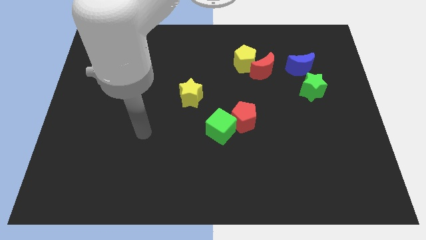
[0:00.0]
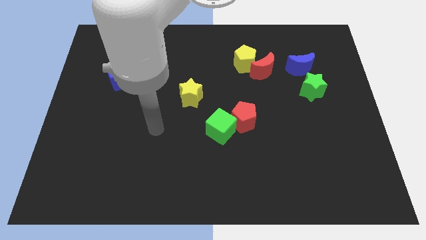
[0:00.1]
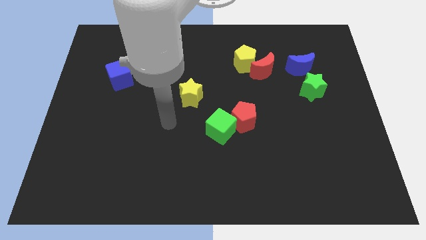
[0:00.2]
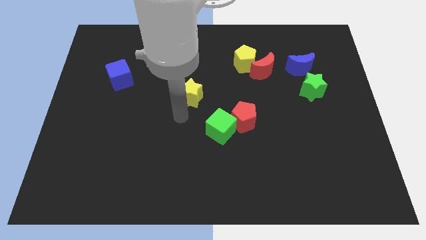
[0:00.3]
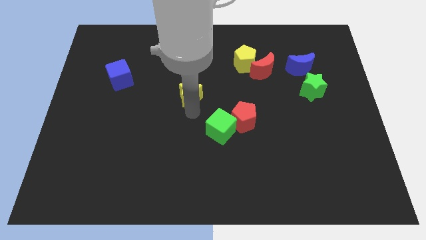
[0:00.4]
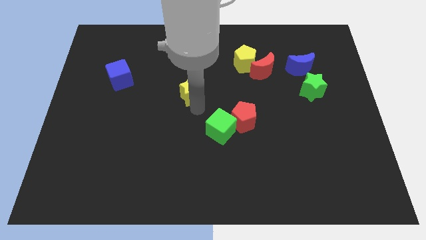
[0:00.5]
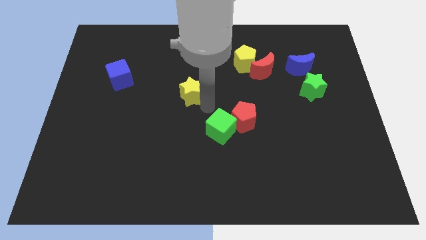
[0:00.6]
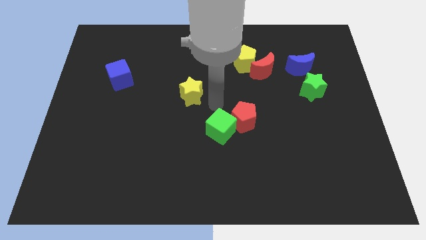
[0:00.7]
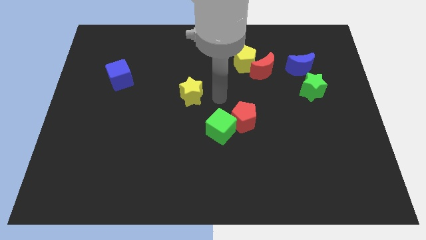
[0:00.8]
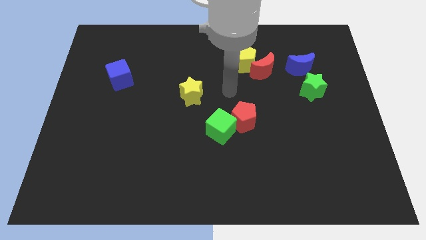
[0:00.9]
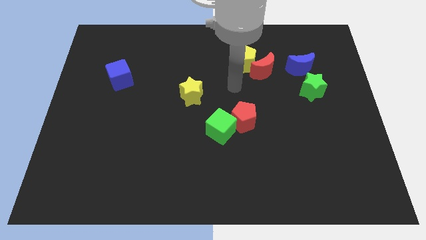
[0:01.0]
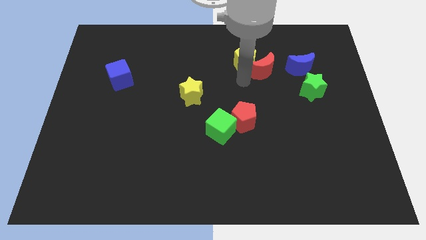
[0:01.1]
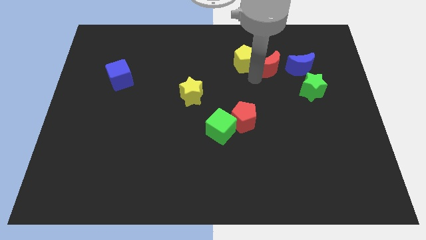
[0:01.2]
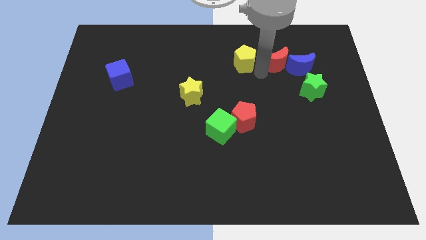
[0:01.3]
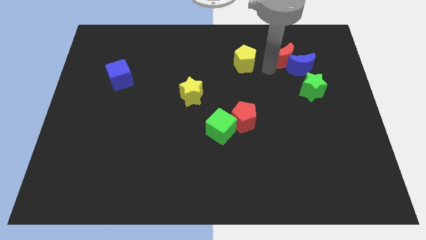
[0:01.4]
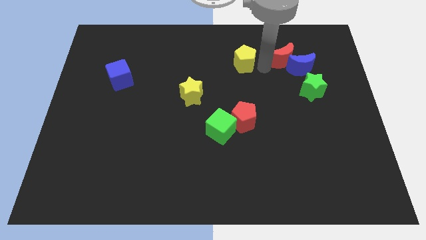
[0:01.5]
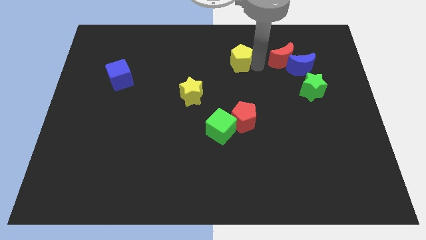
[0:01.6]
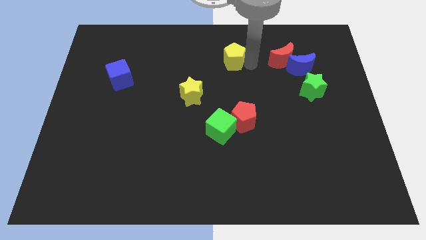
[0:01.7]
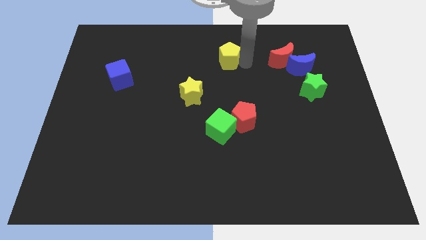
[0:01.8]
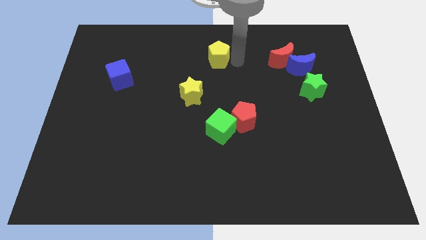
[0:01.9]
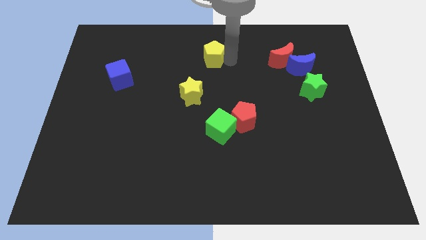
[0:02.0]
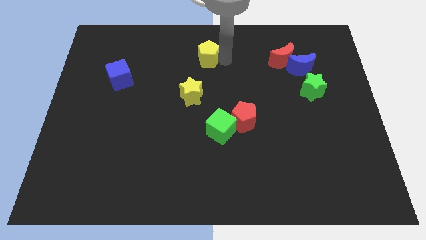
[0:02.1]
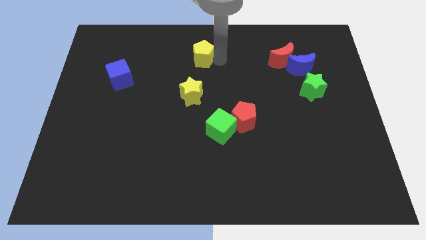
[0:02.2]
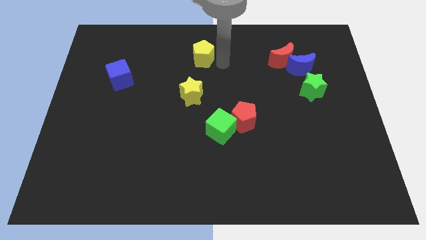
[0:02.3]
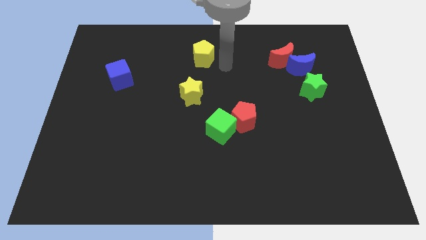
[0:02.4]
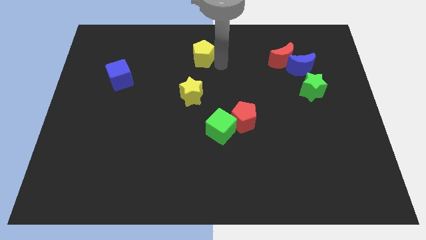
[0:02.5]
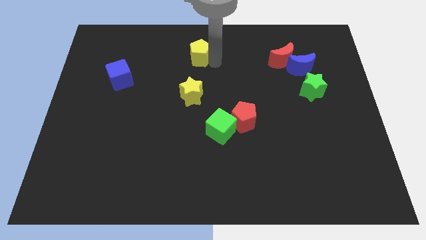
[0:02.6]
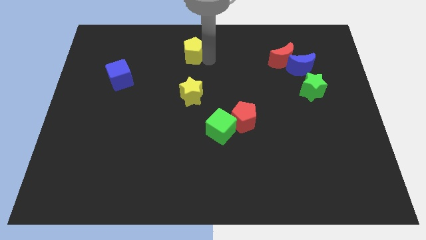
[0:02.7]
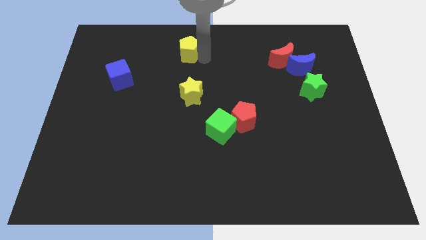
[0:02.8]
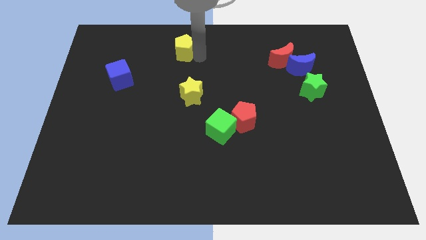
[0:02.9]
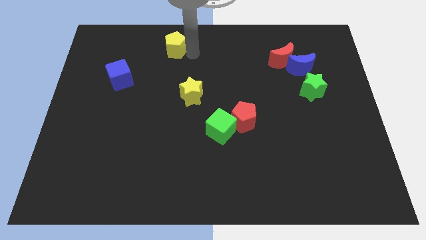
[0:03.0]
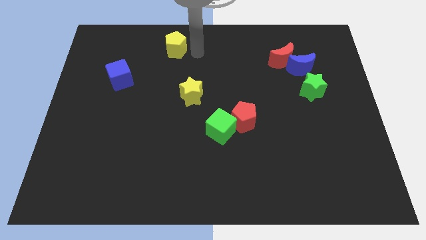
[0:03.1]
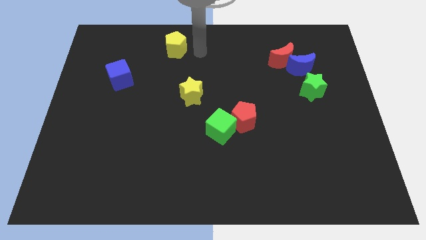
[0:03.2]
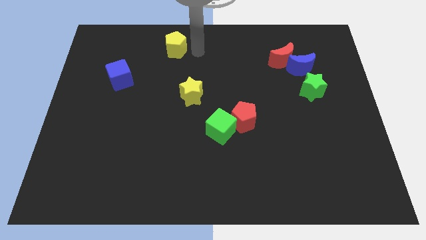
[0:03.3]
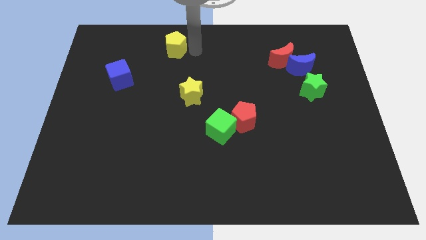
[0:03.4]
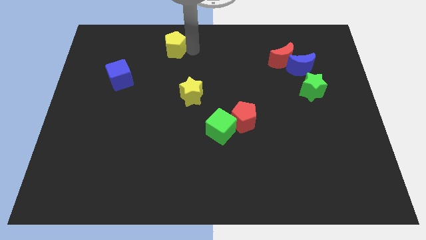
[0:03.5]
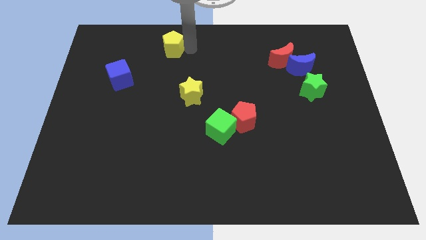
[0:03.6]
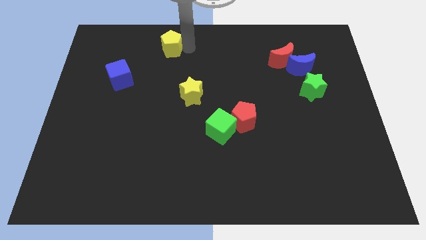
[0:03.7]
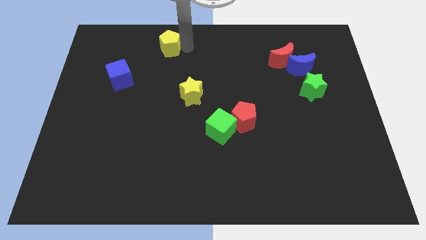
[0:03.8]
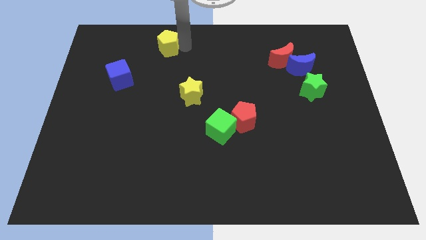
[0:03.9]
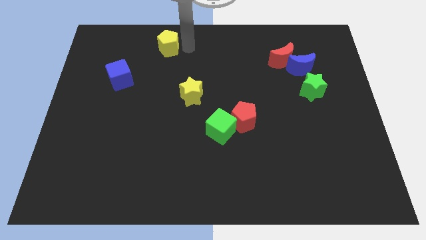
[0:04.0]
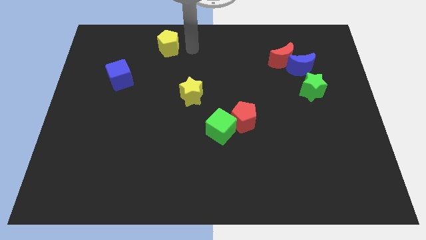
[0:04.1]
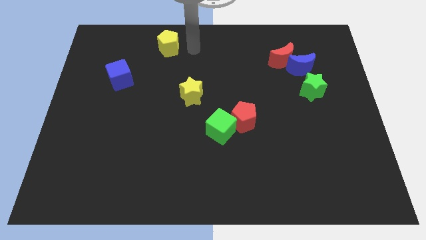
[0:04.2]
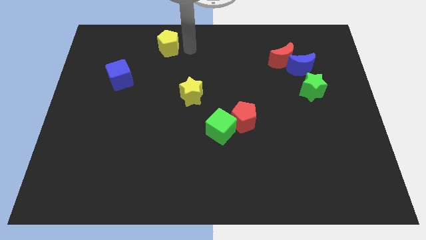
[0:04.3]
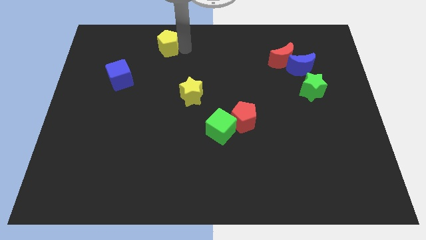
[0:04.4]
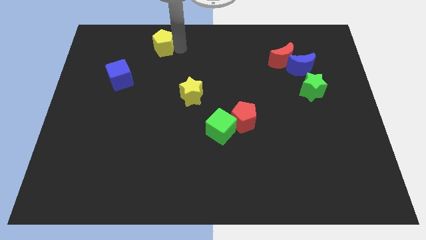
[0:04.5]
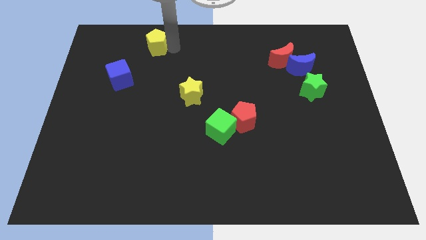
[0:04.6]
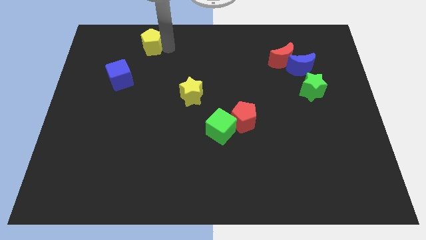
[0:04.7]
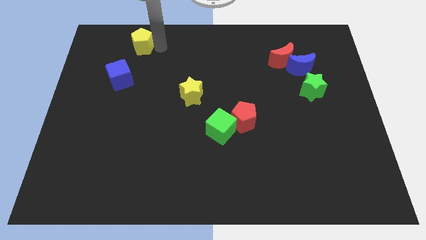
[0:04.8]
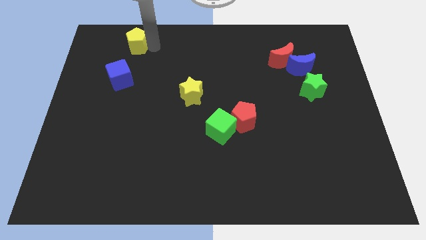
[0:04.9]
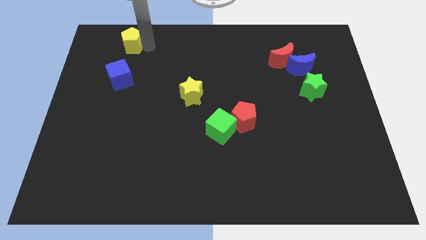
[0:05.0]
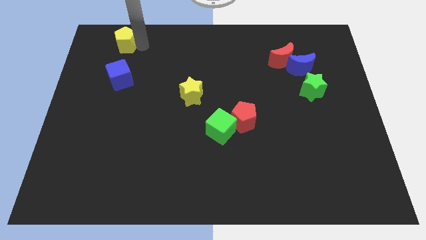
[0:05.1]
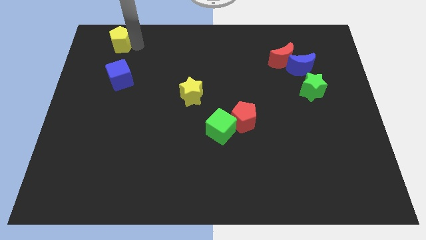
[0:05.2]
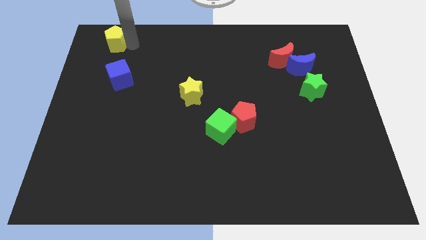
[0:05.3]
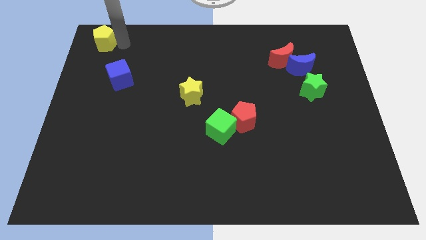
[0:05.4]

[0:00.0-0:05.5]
slide the yellow pentagon to the top left

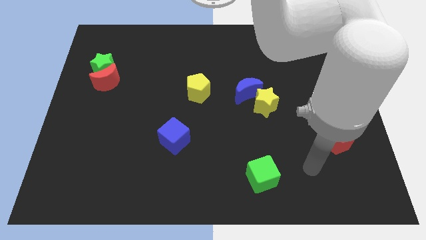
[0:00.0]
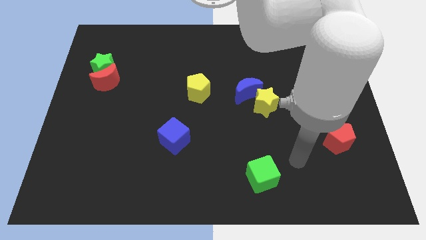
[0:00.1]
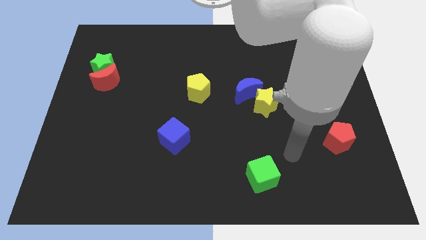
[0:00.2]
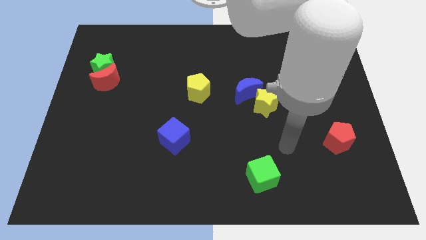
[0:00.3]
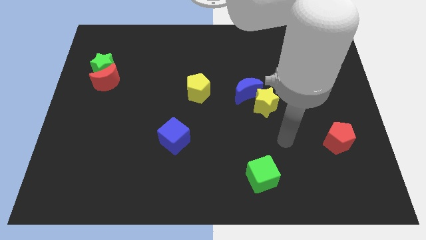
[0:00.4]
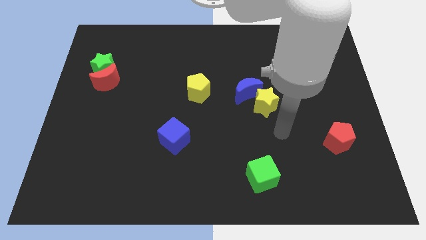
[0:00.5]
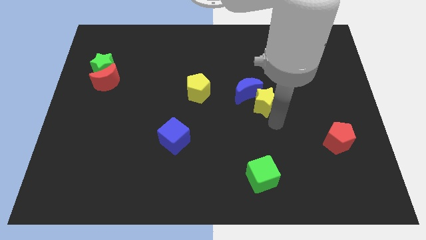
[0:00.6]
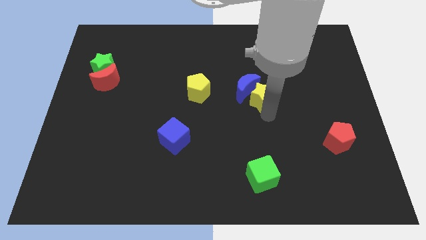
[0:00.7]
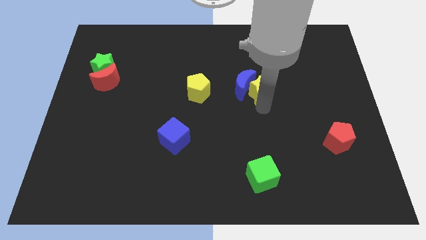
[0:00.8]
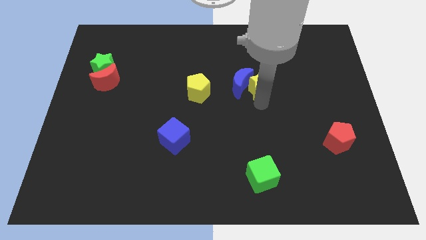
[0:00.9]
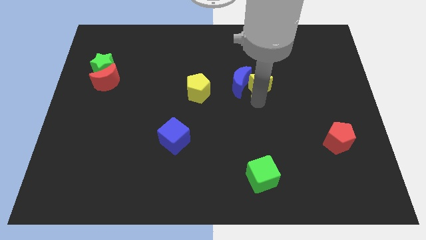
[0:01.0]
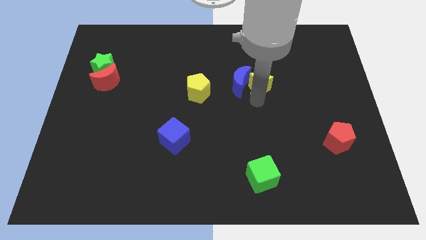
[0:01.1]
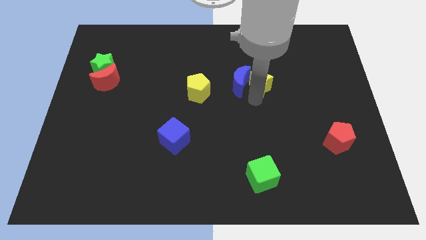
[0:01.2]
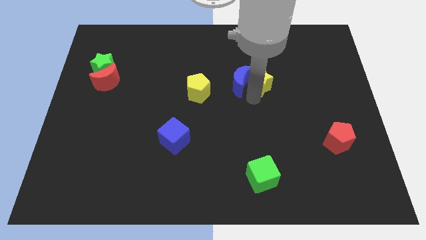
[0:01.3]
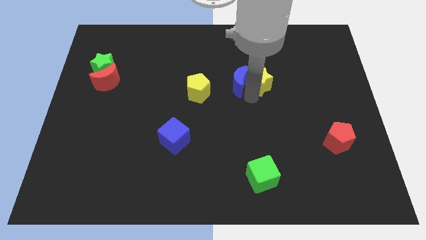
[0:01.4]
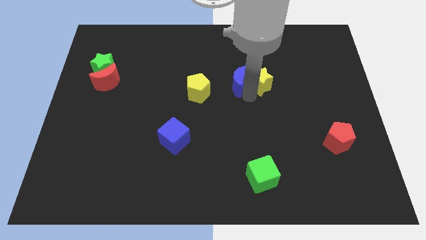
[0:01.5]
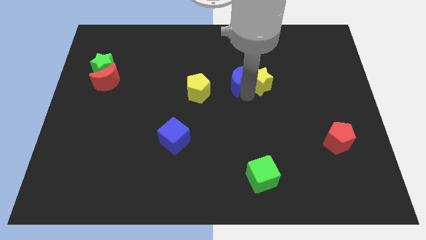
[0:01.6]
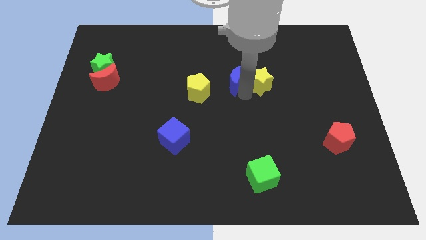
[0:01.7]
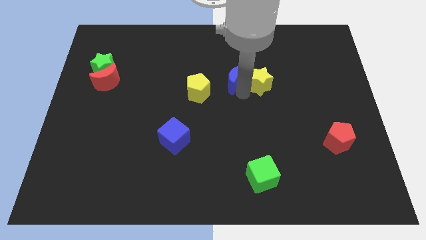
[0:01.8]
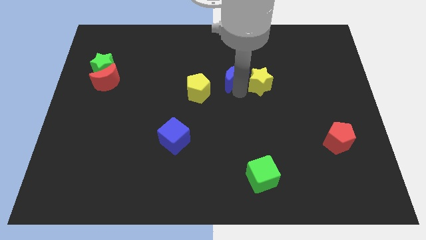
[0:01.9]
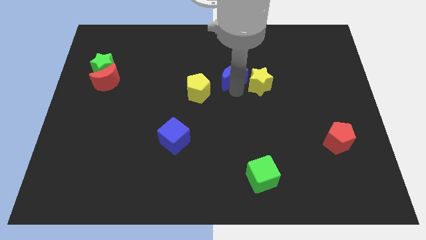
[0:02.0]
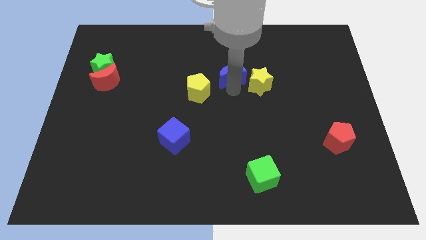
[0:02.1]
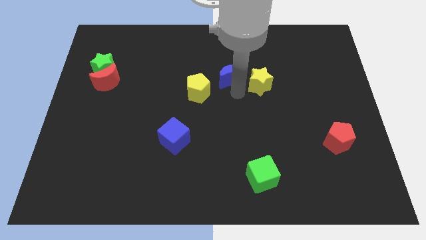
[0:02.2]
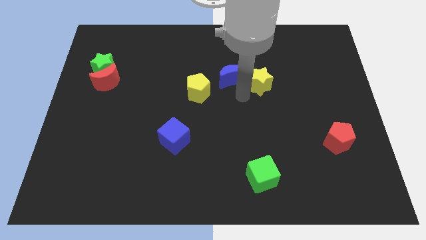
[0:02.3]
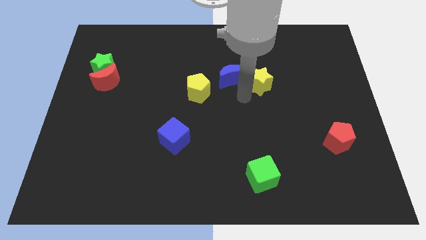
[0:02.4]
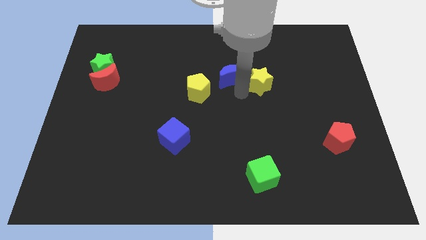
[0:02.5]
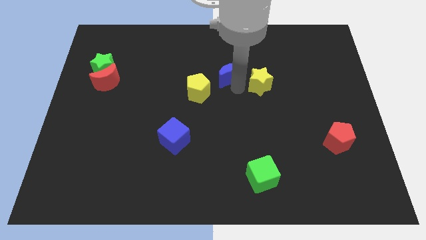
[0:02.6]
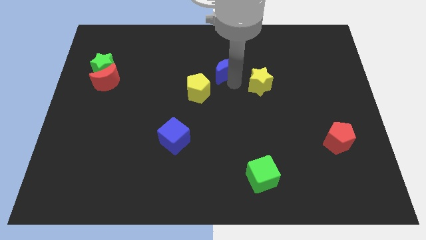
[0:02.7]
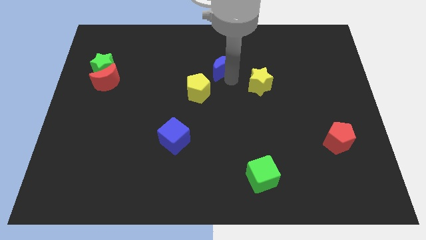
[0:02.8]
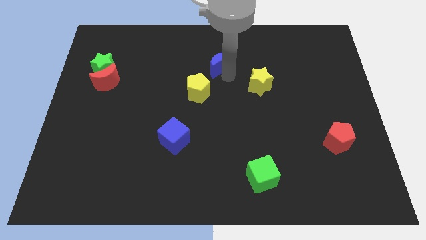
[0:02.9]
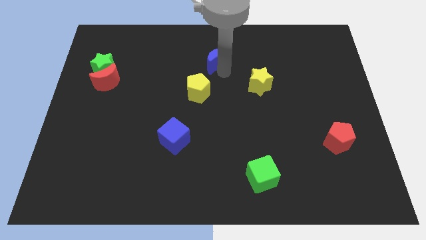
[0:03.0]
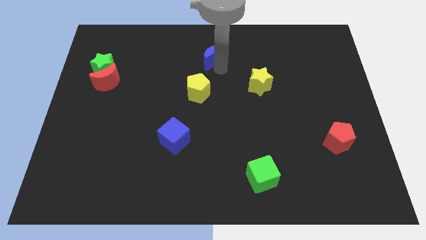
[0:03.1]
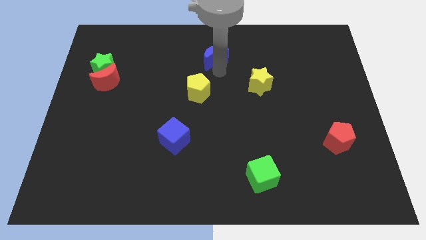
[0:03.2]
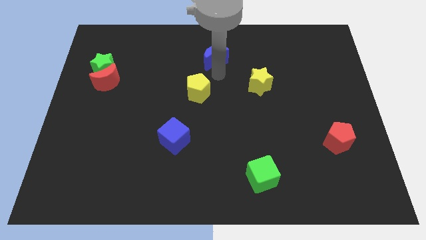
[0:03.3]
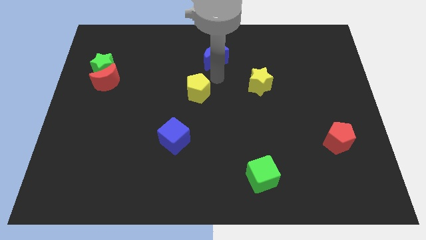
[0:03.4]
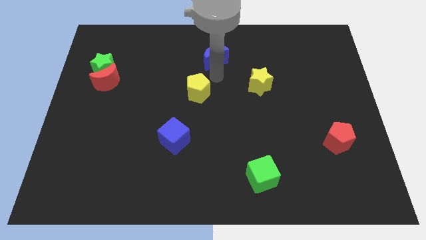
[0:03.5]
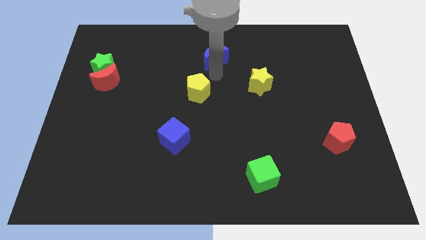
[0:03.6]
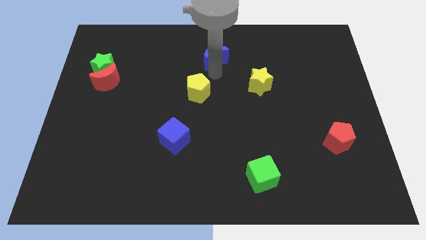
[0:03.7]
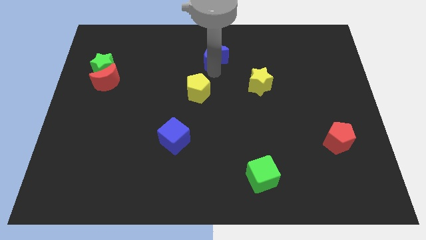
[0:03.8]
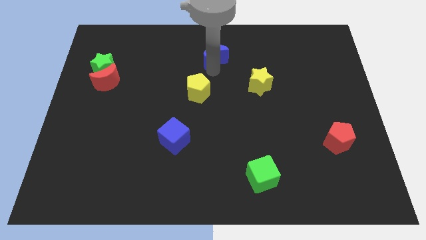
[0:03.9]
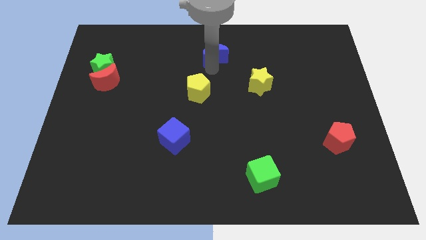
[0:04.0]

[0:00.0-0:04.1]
slide the blue moon to the top
